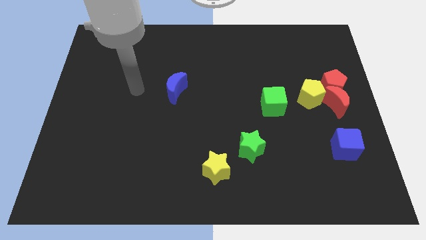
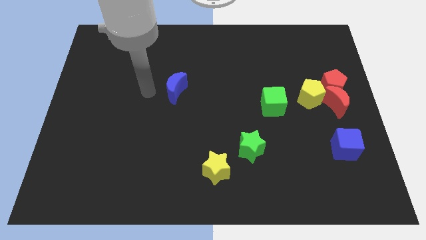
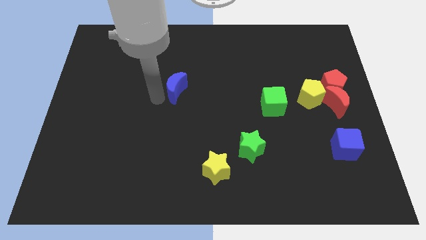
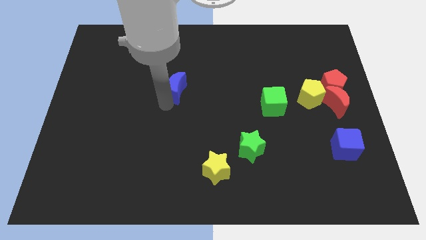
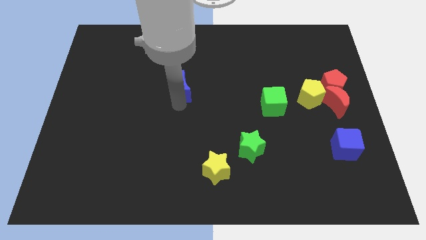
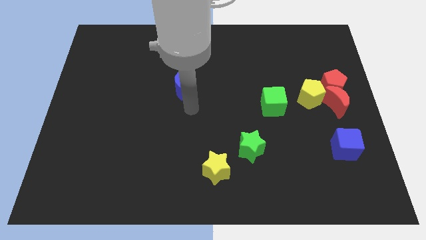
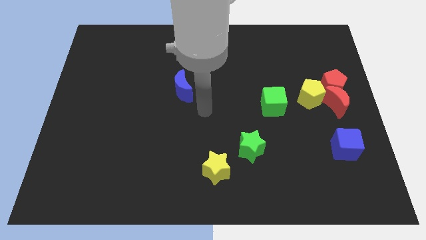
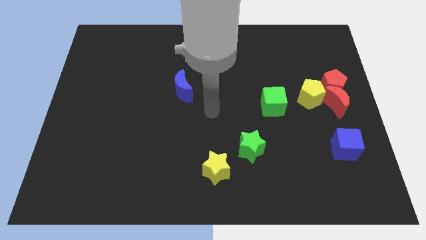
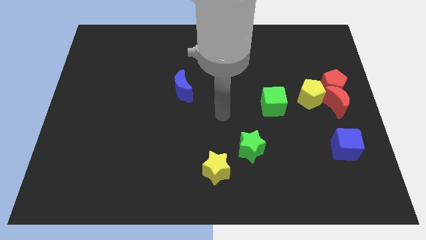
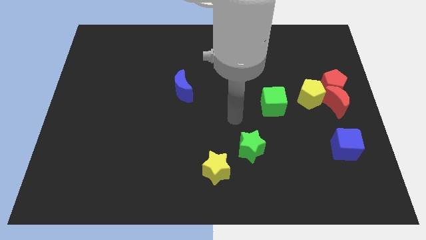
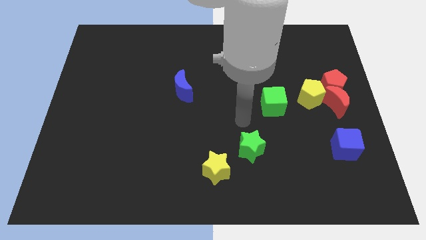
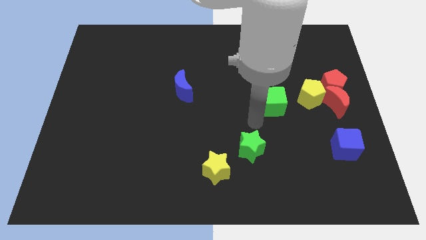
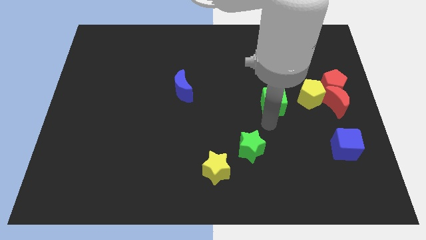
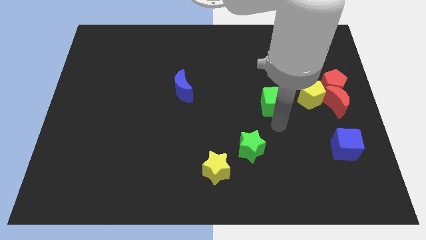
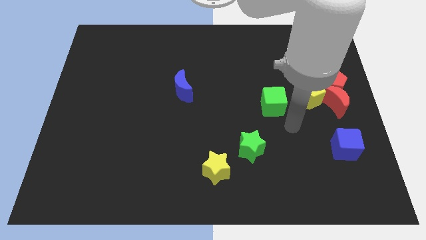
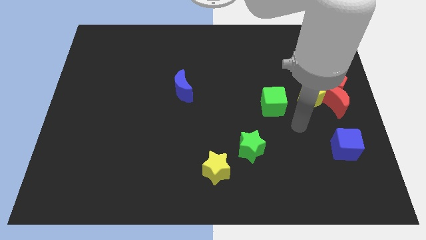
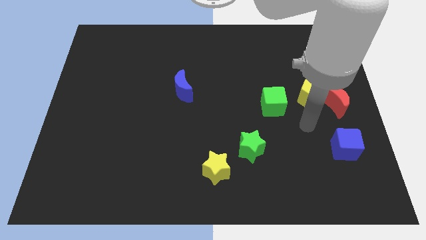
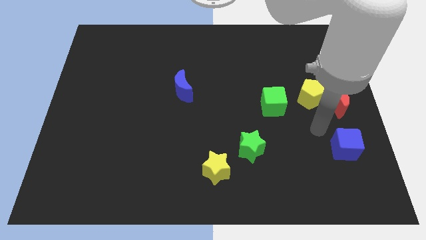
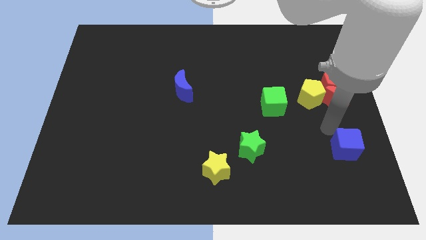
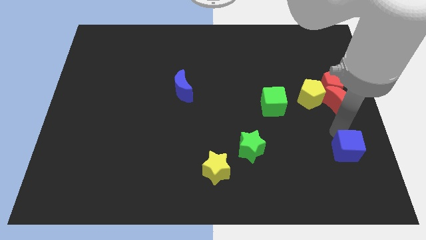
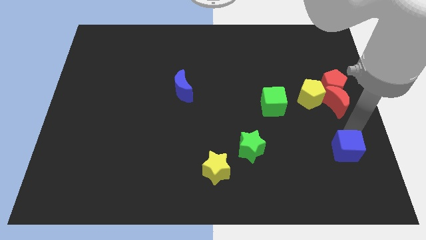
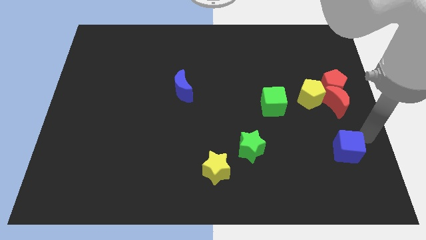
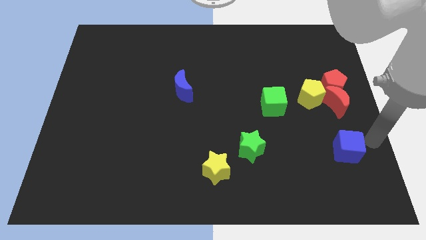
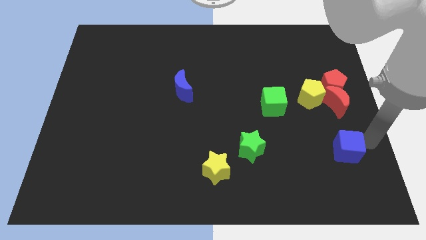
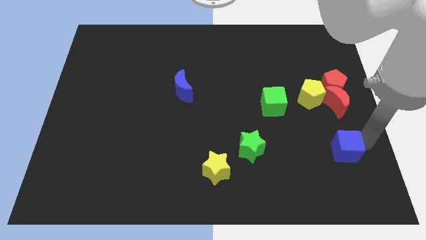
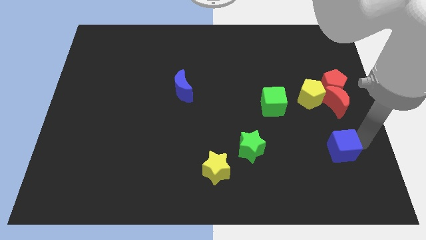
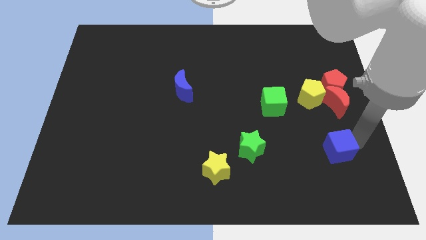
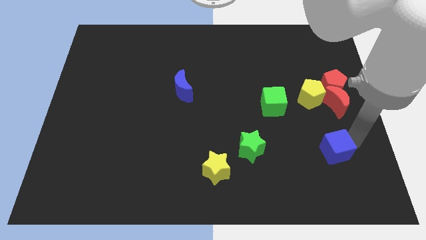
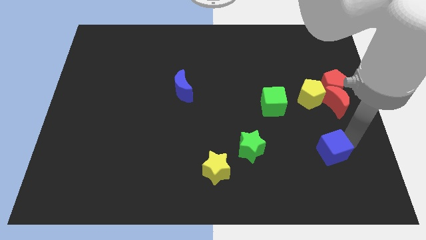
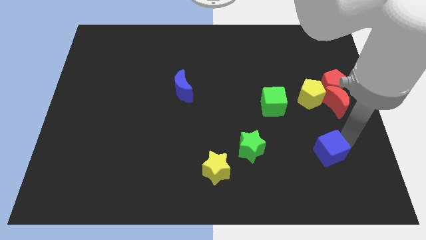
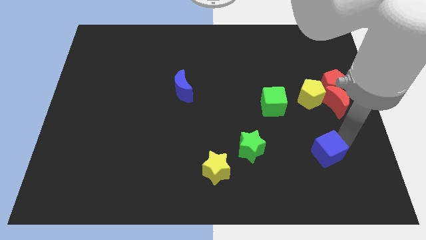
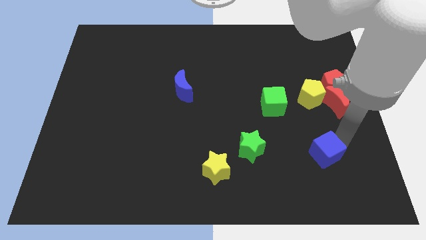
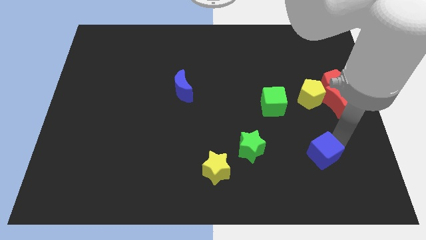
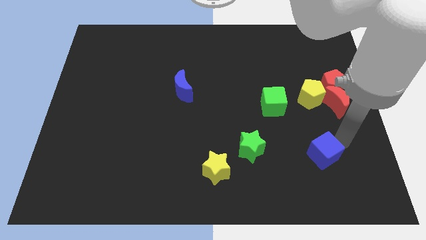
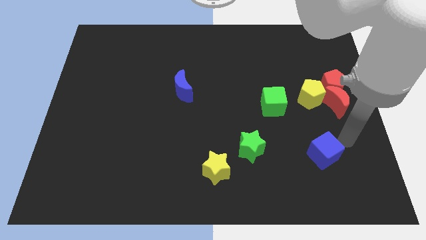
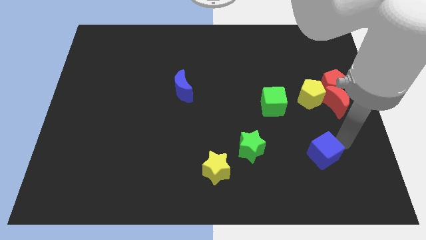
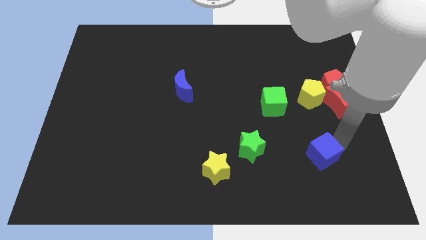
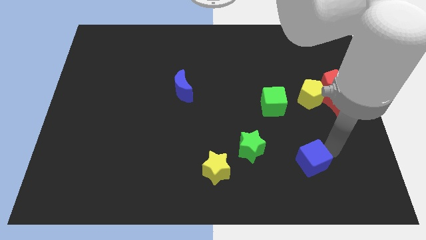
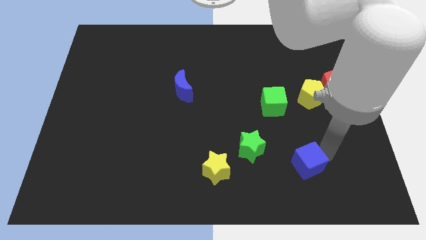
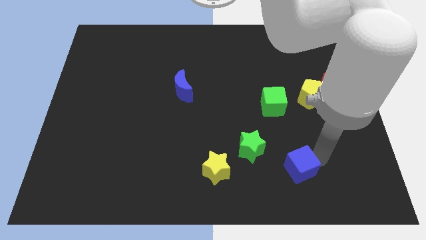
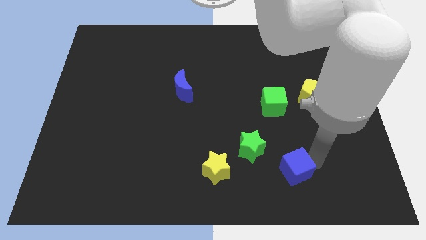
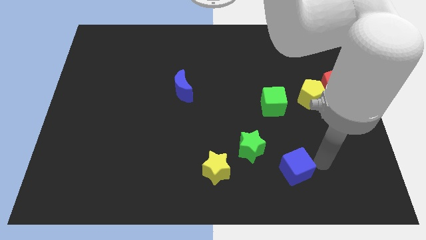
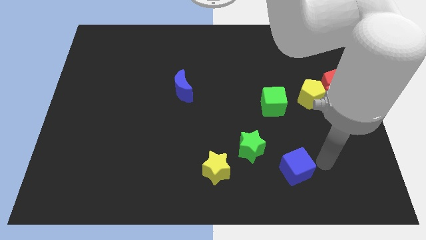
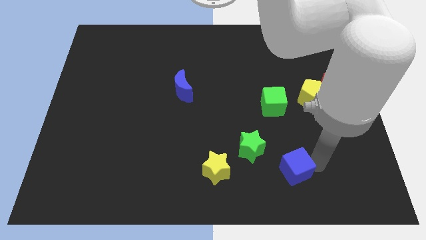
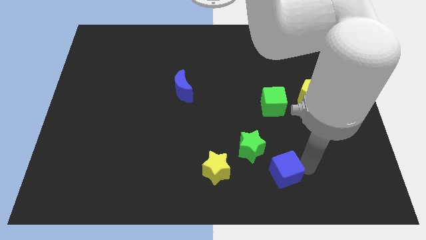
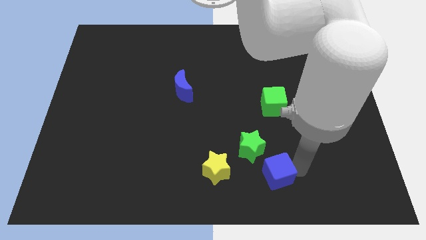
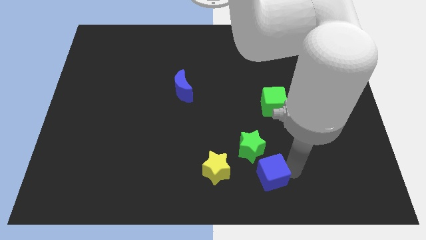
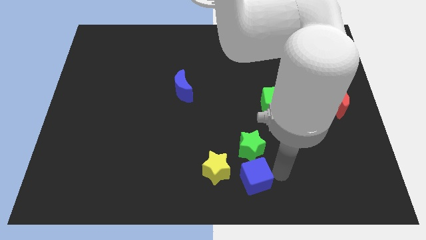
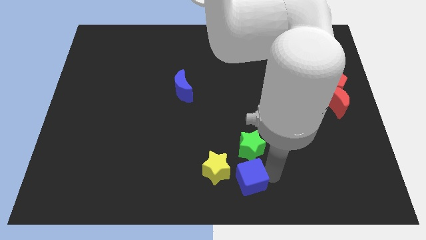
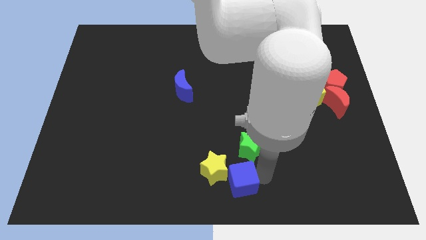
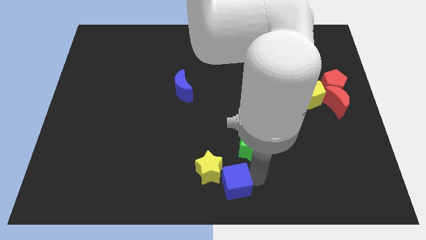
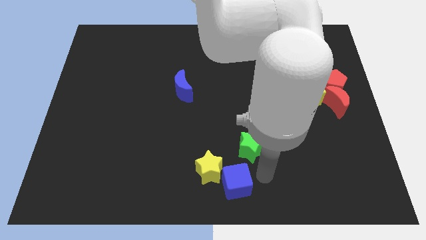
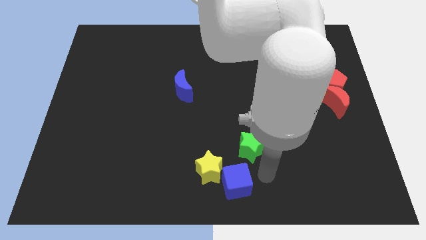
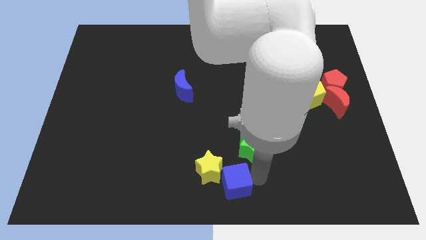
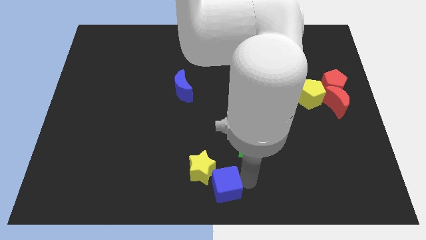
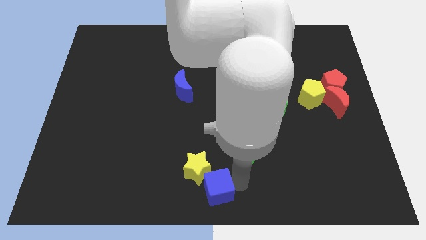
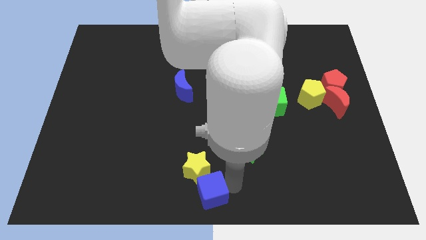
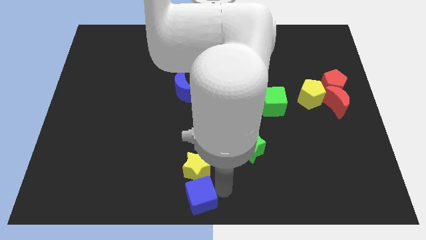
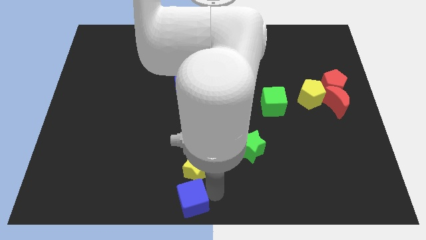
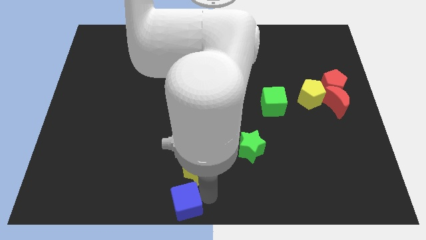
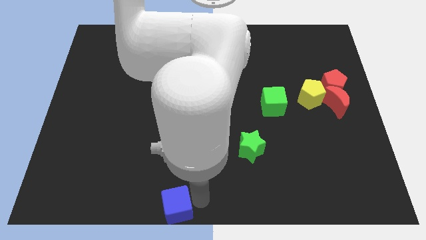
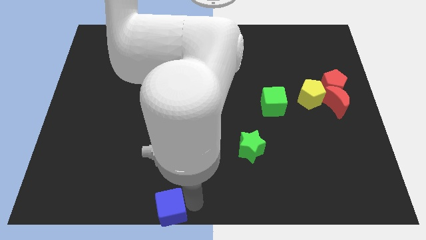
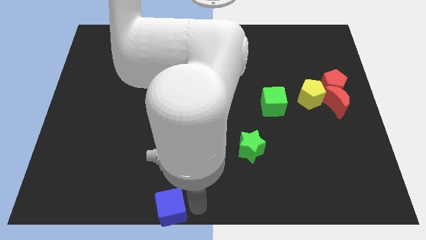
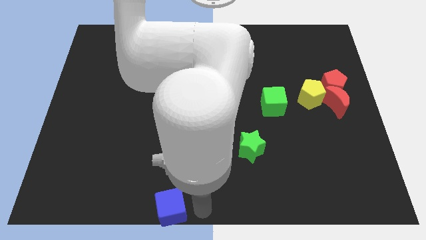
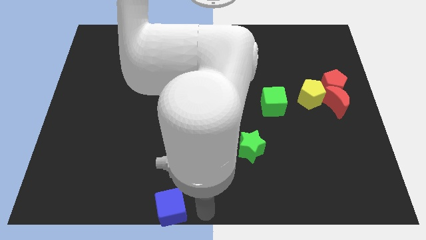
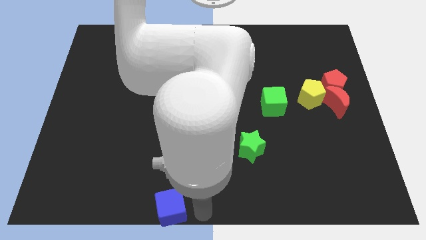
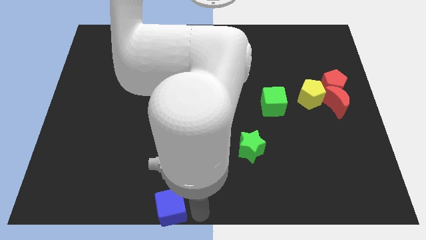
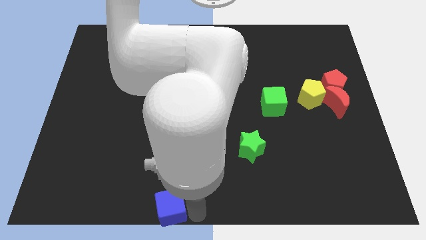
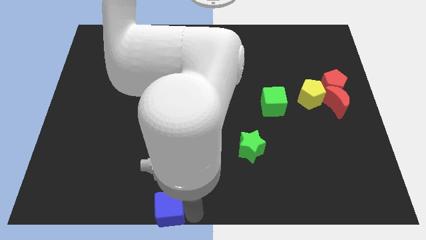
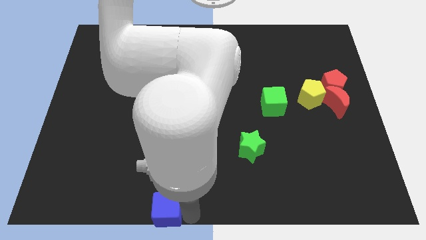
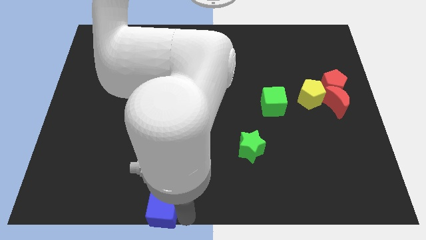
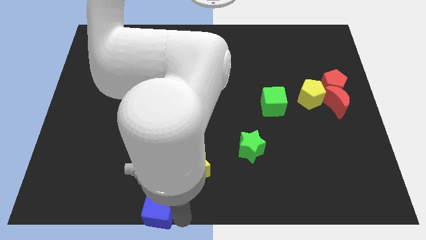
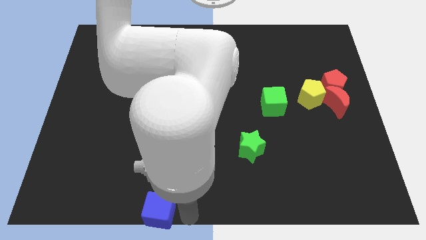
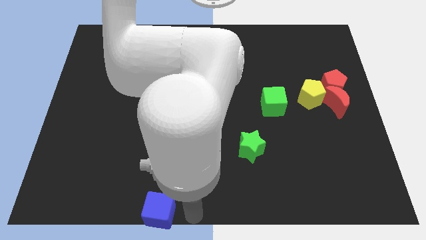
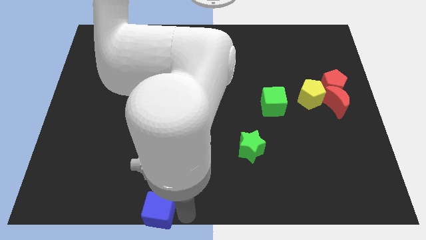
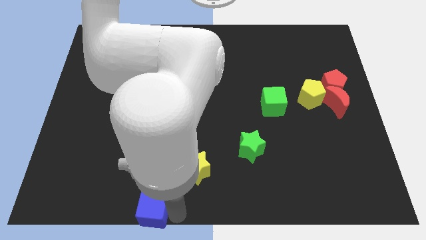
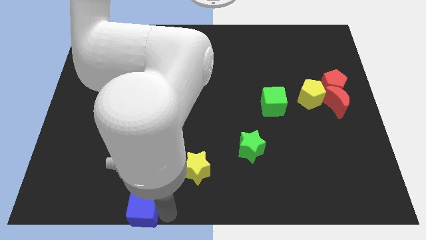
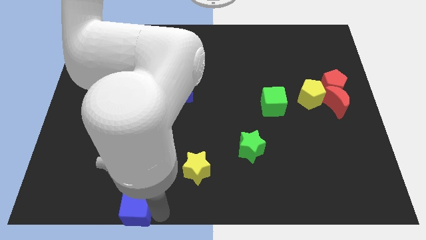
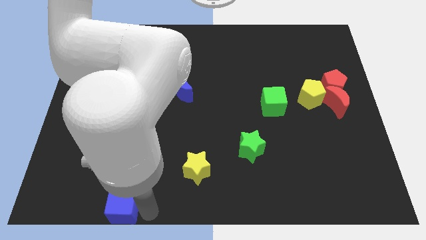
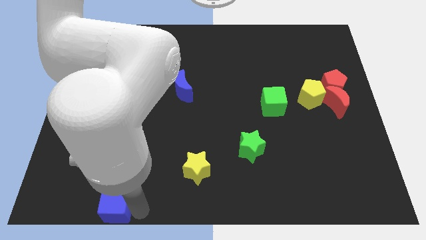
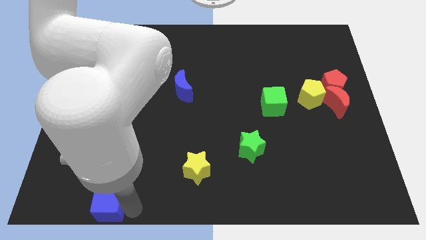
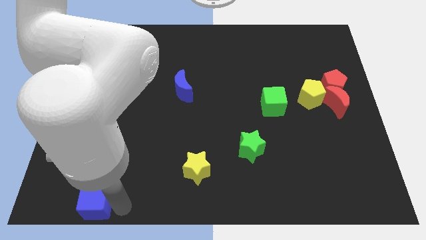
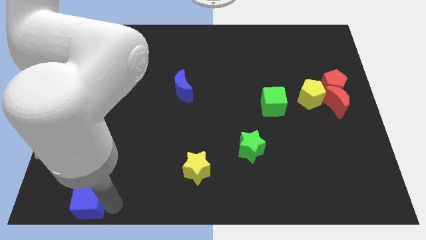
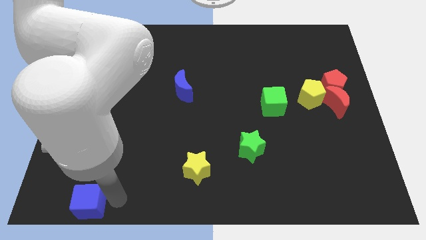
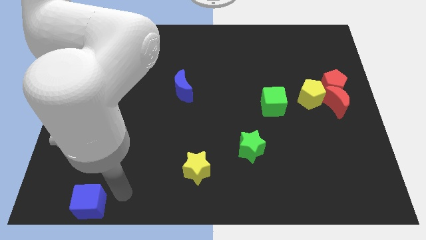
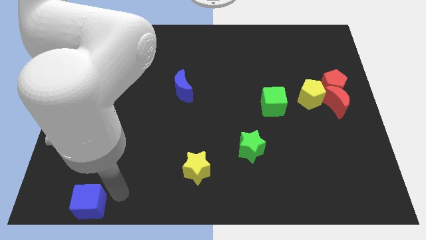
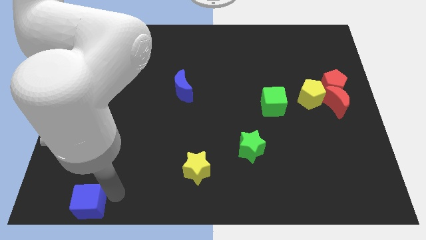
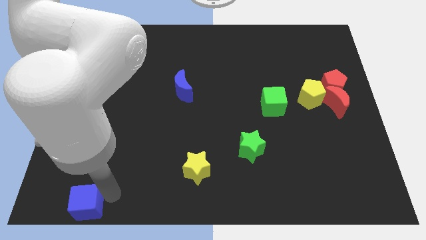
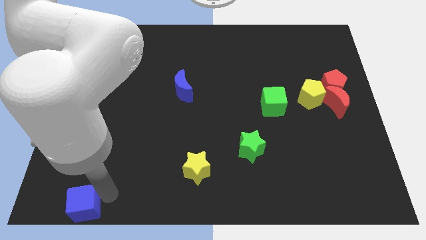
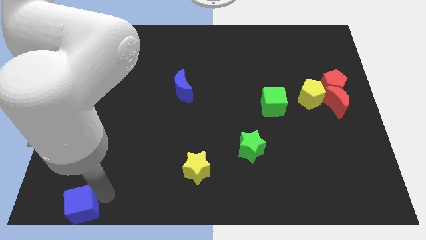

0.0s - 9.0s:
slide the blue cube to the bottom left corner
